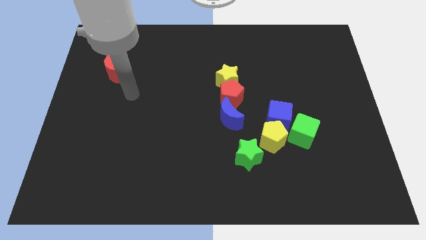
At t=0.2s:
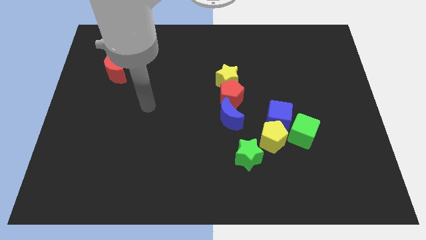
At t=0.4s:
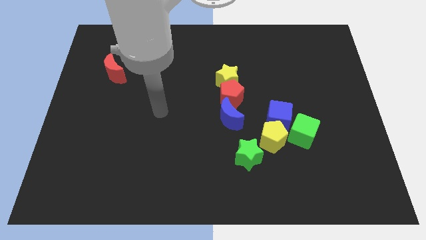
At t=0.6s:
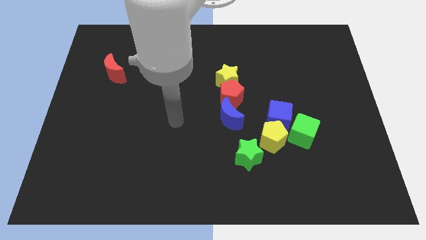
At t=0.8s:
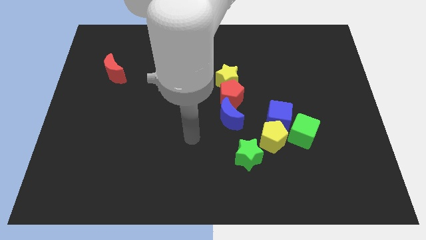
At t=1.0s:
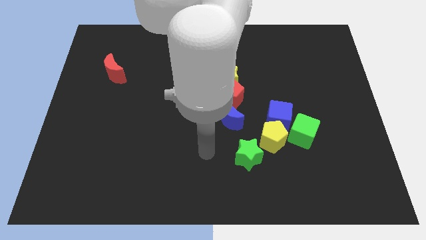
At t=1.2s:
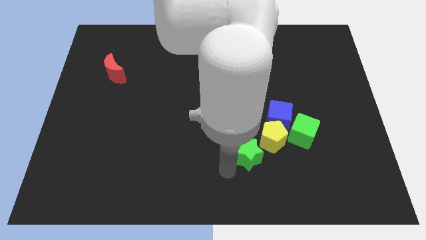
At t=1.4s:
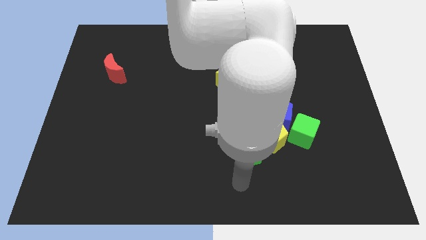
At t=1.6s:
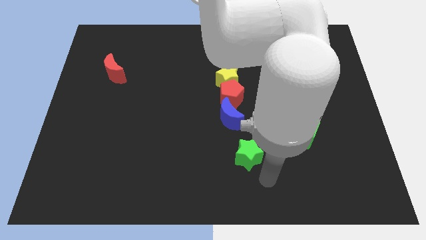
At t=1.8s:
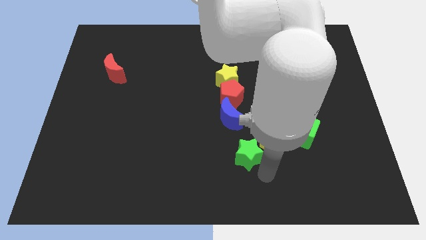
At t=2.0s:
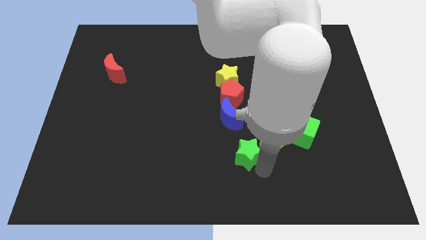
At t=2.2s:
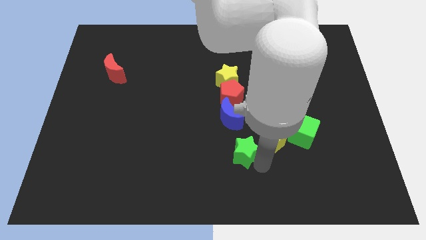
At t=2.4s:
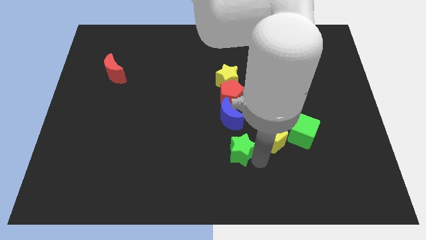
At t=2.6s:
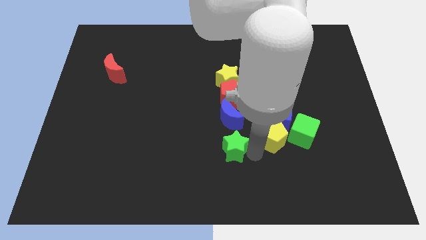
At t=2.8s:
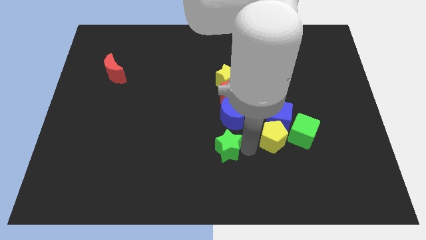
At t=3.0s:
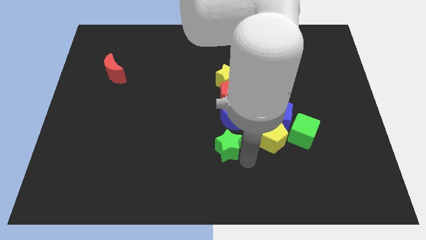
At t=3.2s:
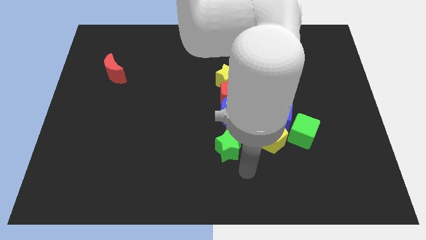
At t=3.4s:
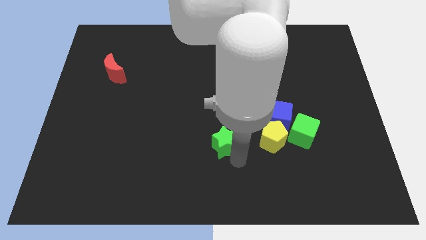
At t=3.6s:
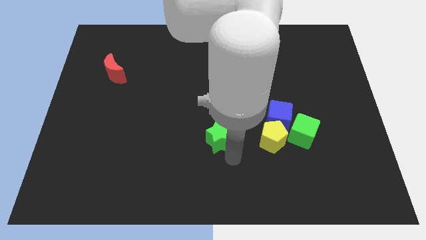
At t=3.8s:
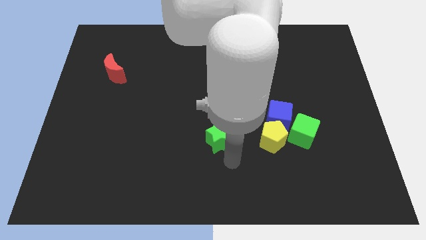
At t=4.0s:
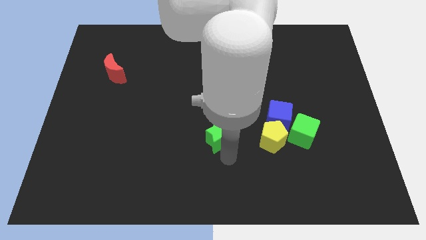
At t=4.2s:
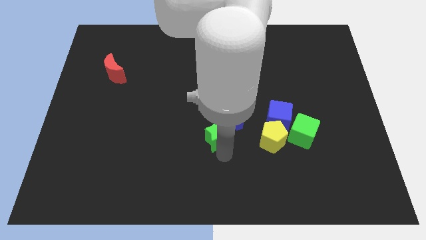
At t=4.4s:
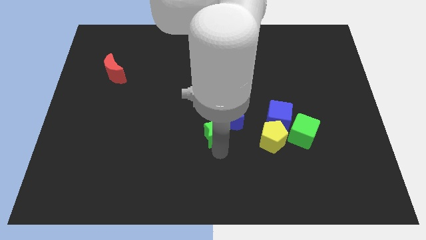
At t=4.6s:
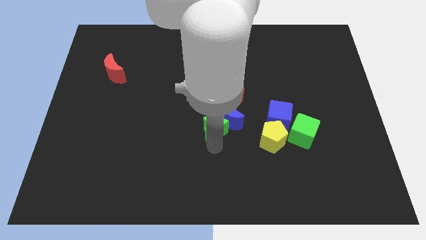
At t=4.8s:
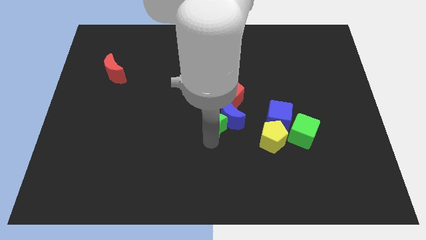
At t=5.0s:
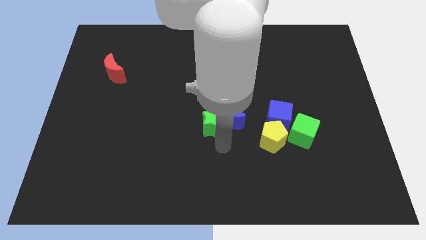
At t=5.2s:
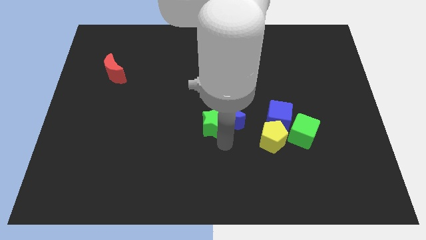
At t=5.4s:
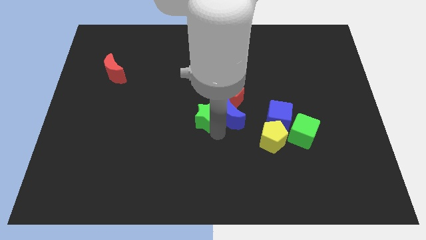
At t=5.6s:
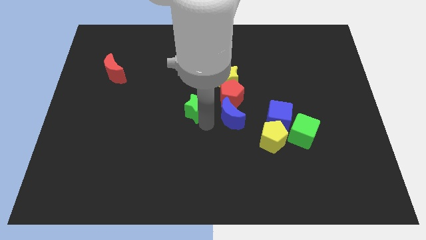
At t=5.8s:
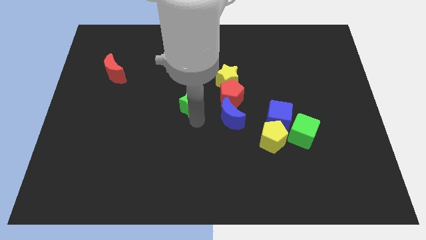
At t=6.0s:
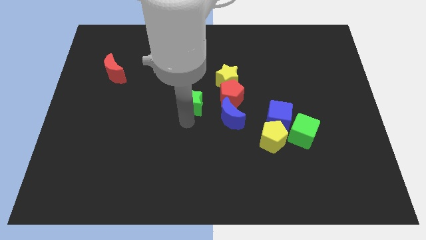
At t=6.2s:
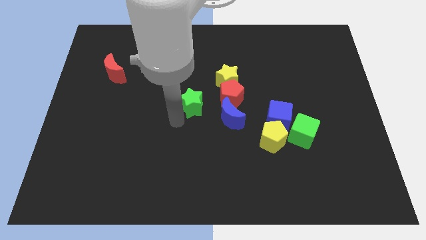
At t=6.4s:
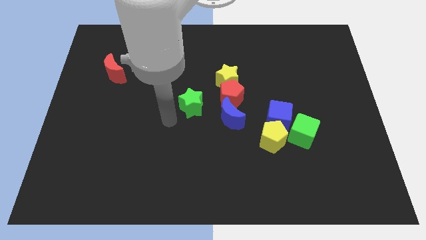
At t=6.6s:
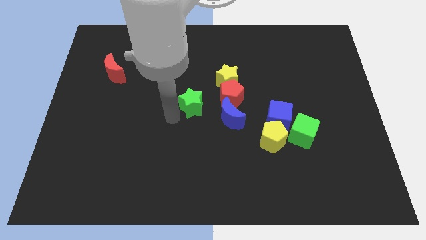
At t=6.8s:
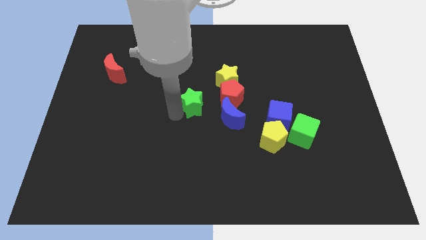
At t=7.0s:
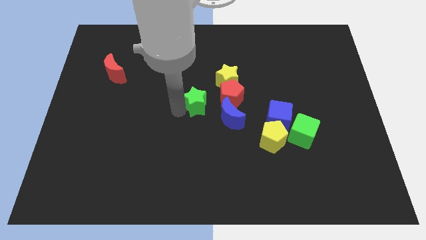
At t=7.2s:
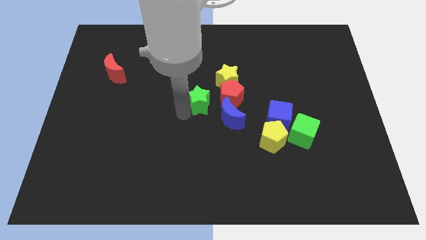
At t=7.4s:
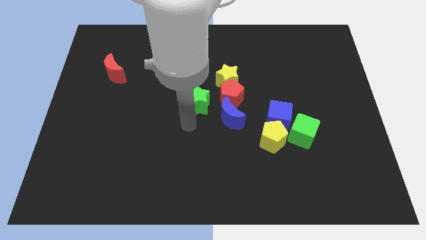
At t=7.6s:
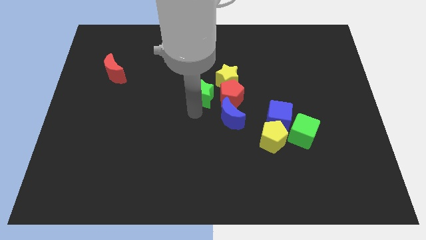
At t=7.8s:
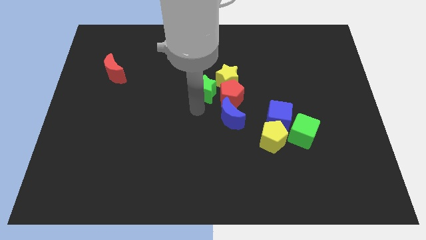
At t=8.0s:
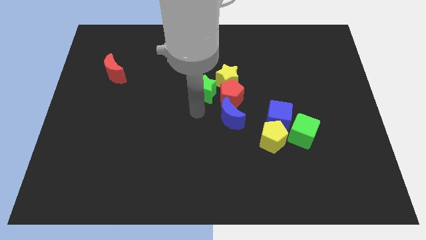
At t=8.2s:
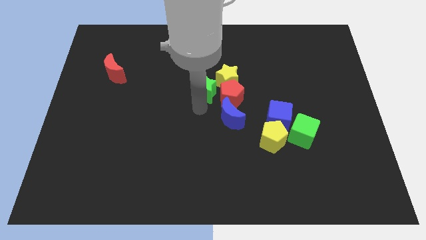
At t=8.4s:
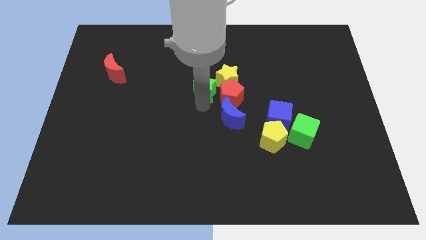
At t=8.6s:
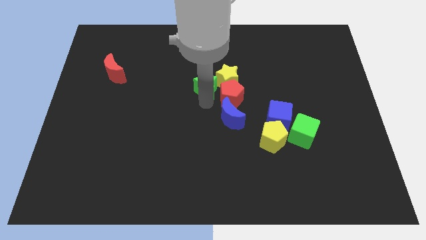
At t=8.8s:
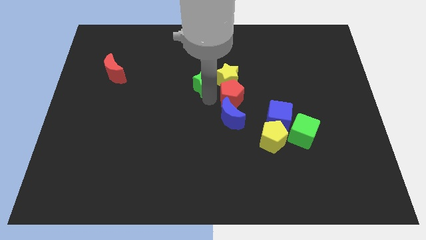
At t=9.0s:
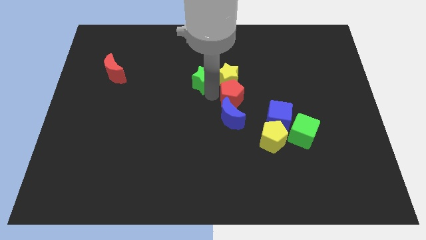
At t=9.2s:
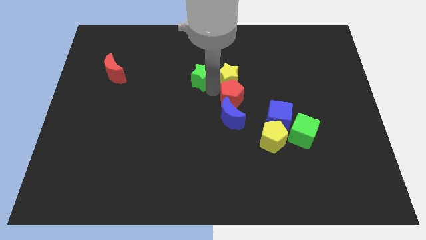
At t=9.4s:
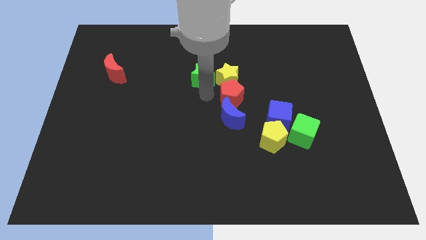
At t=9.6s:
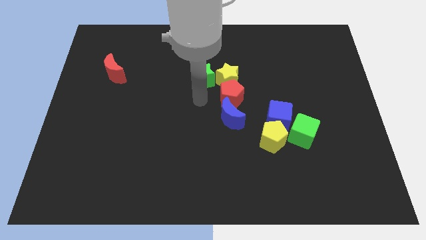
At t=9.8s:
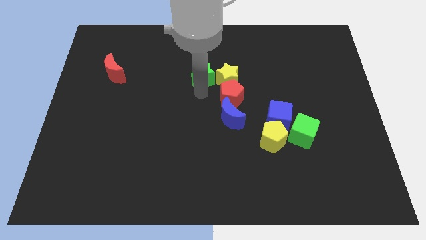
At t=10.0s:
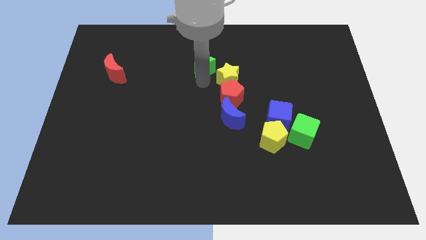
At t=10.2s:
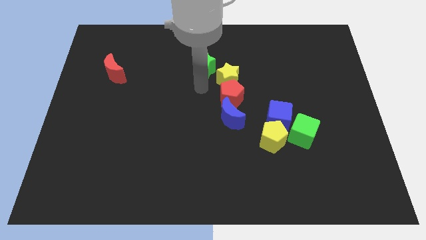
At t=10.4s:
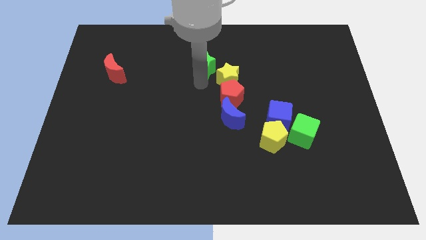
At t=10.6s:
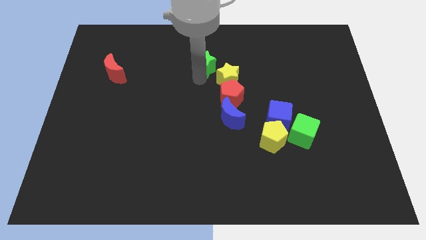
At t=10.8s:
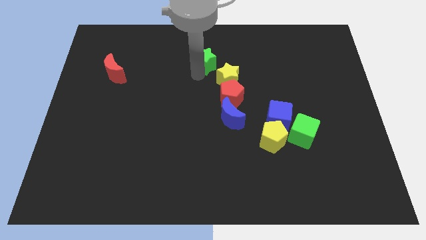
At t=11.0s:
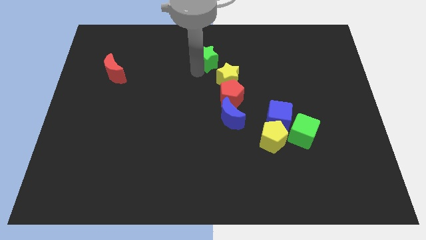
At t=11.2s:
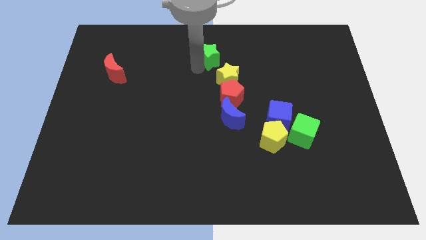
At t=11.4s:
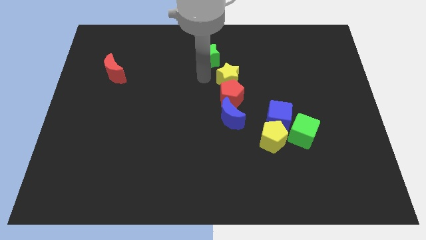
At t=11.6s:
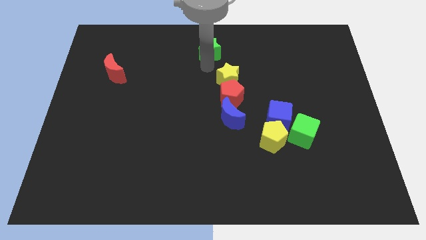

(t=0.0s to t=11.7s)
push the green star to the top
